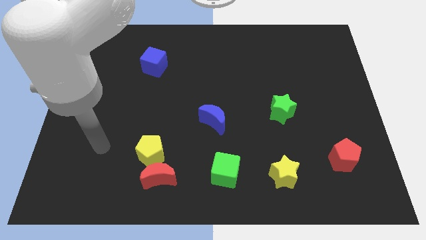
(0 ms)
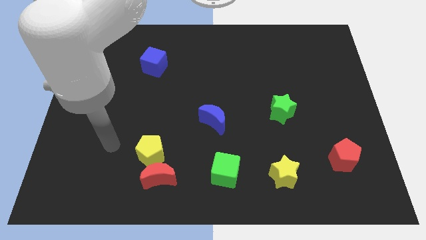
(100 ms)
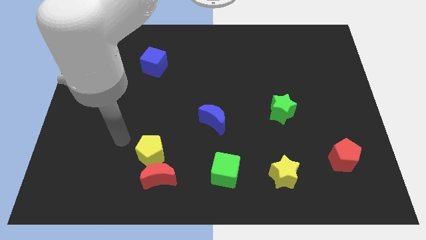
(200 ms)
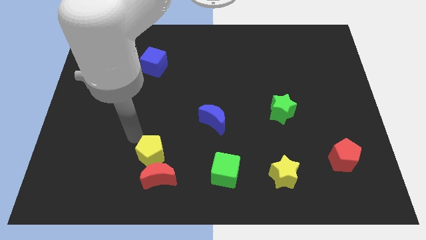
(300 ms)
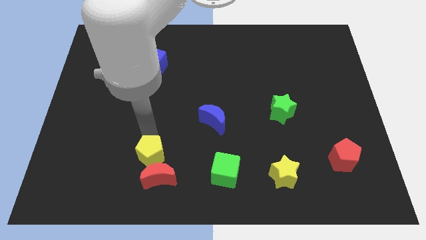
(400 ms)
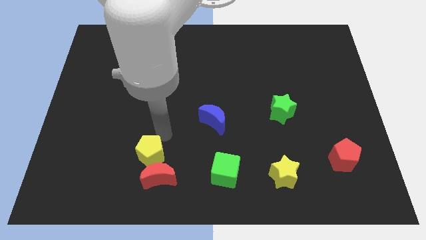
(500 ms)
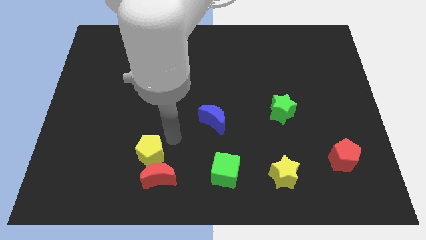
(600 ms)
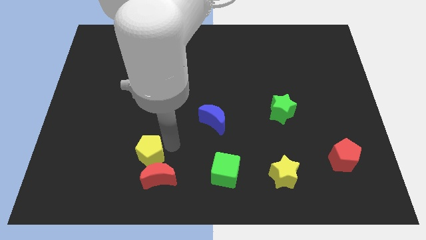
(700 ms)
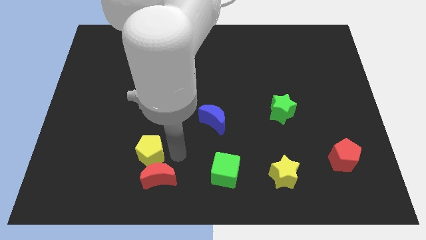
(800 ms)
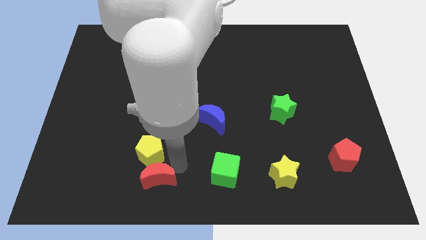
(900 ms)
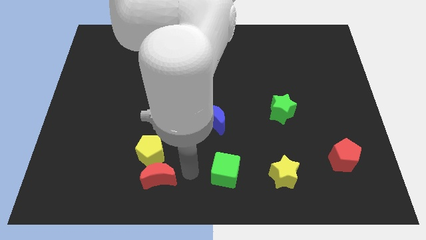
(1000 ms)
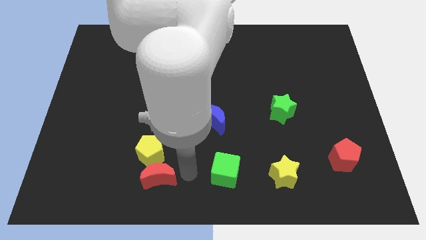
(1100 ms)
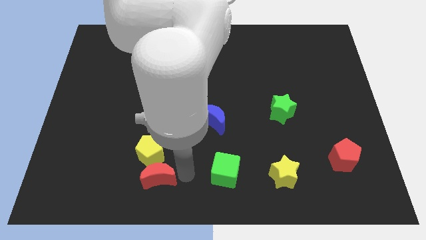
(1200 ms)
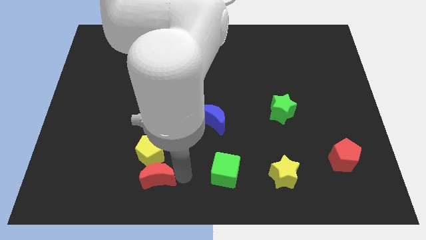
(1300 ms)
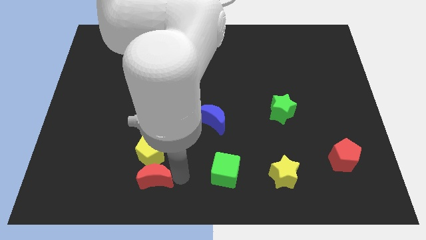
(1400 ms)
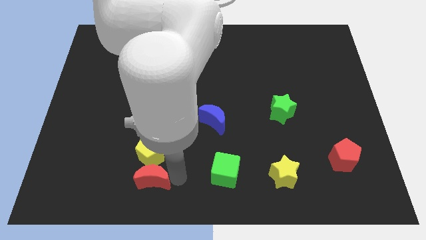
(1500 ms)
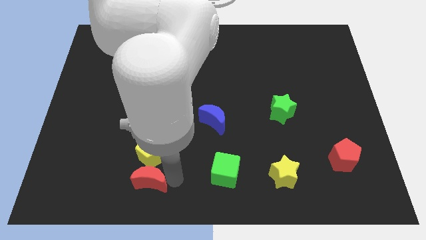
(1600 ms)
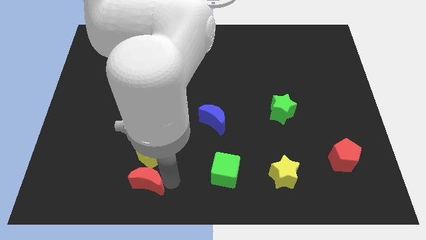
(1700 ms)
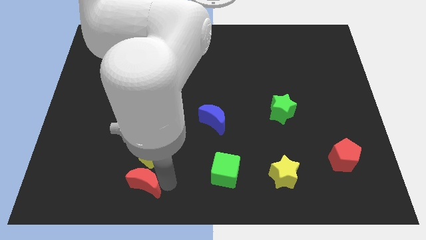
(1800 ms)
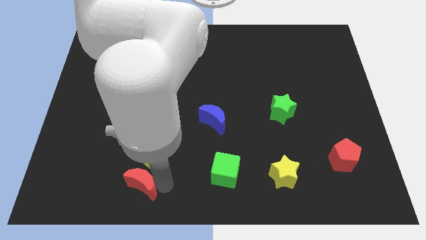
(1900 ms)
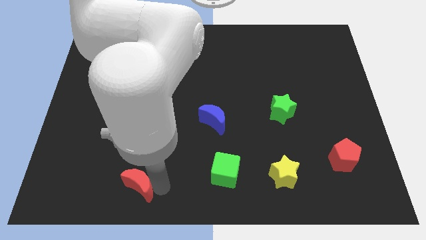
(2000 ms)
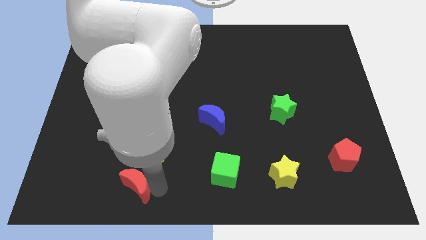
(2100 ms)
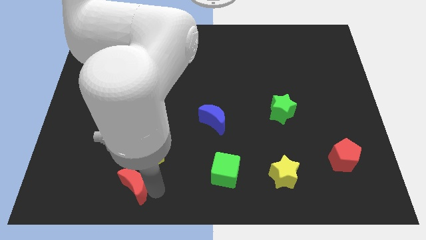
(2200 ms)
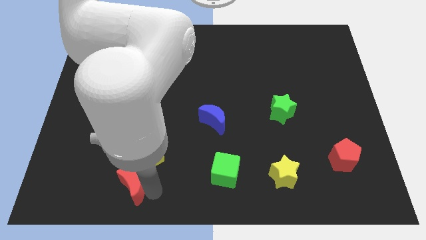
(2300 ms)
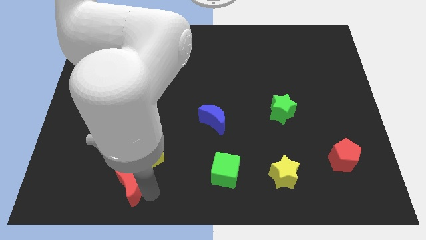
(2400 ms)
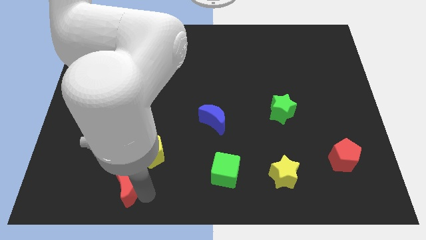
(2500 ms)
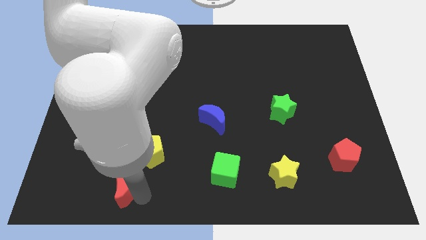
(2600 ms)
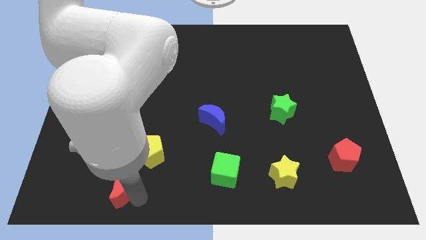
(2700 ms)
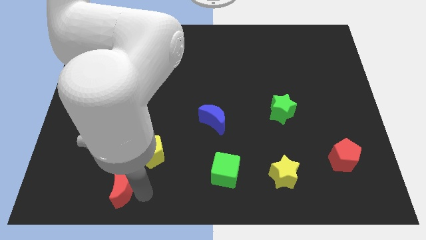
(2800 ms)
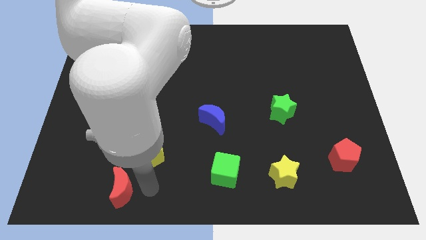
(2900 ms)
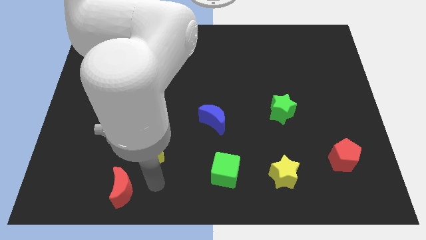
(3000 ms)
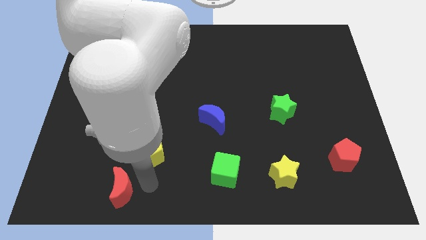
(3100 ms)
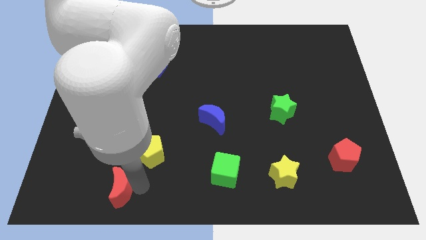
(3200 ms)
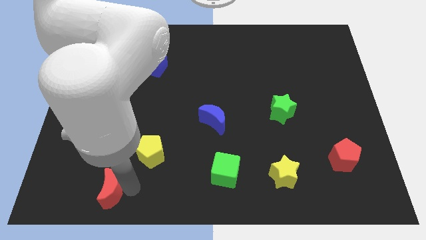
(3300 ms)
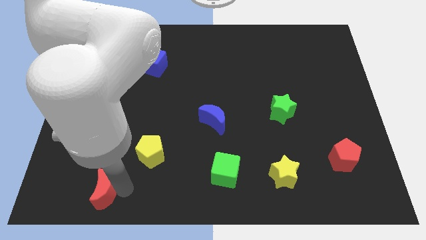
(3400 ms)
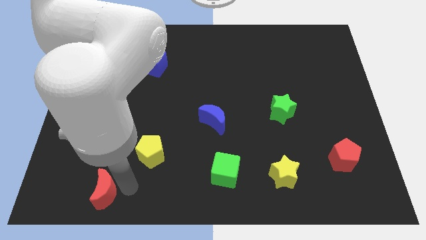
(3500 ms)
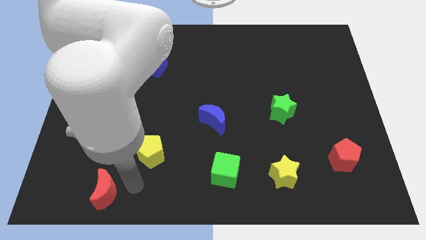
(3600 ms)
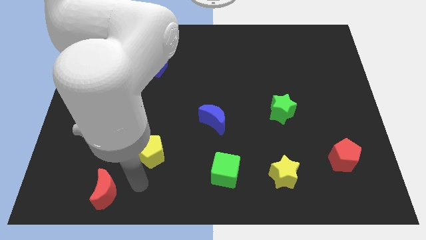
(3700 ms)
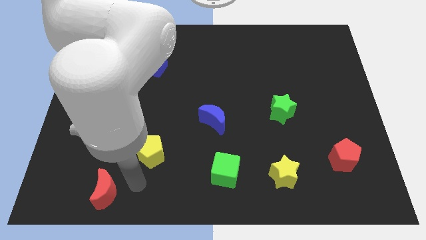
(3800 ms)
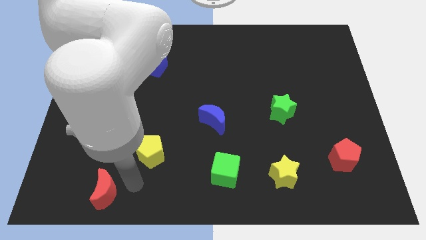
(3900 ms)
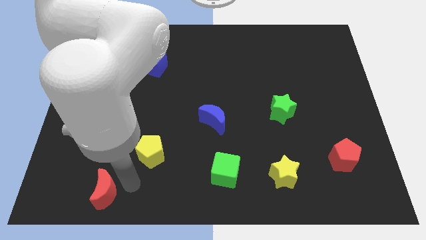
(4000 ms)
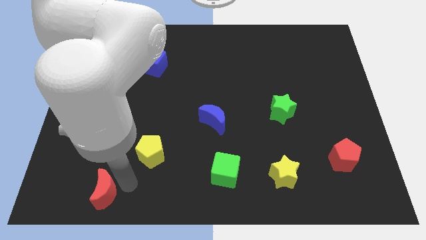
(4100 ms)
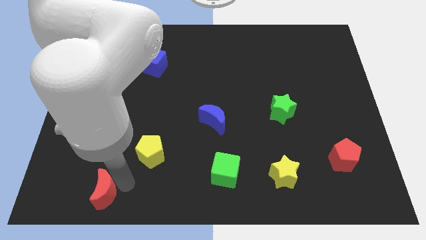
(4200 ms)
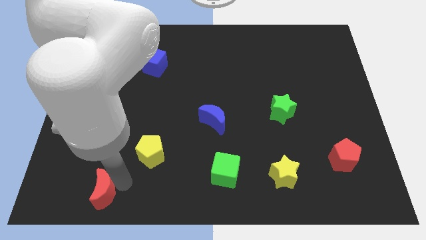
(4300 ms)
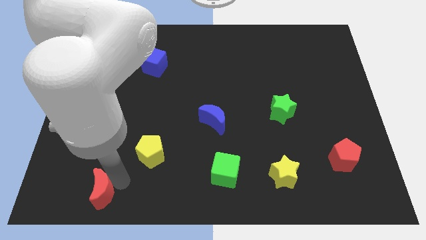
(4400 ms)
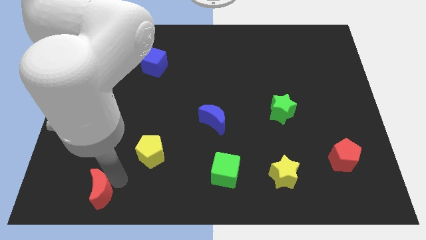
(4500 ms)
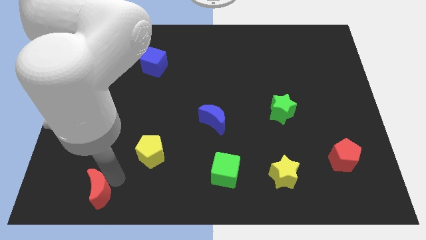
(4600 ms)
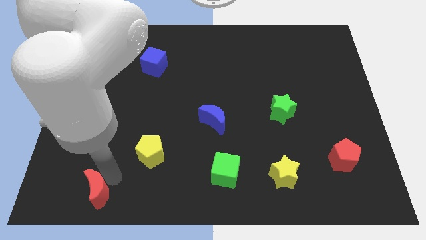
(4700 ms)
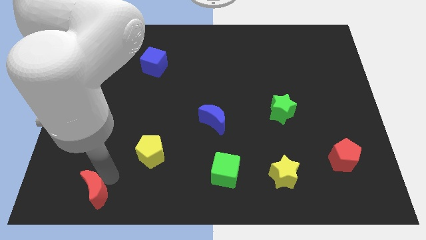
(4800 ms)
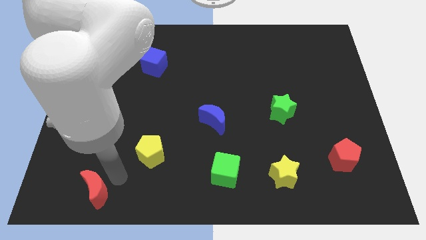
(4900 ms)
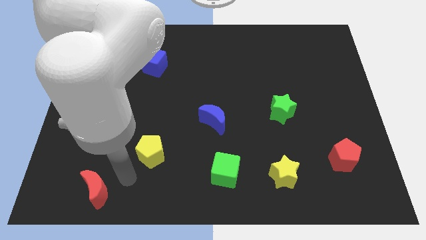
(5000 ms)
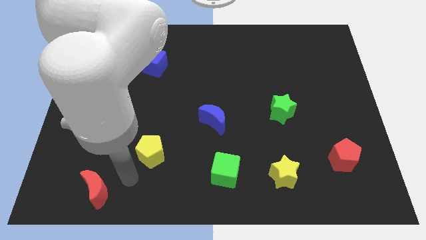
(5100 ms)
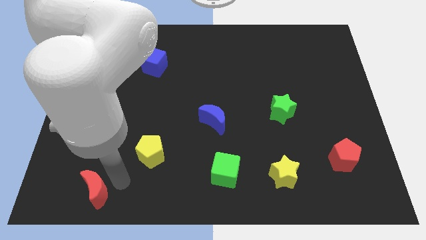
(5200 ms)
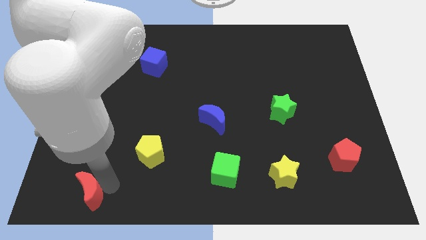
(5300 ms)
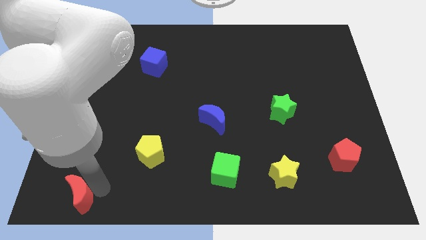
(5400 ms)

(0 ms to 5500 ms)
slide the red moon to the bottom left corner
